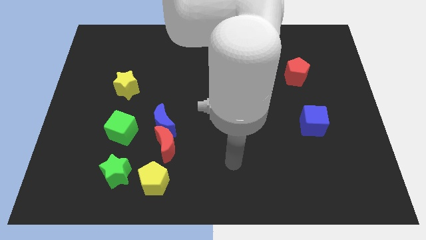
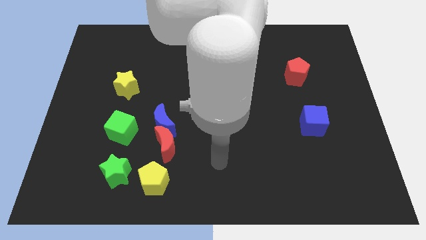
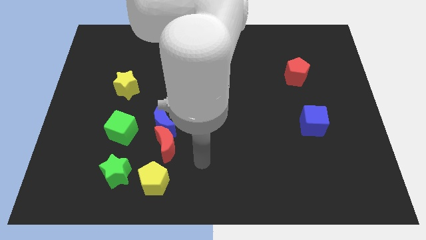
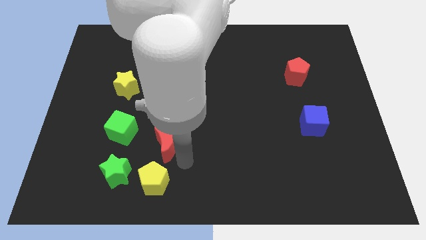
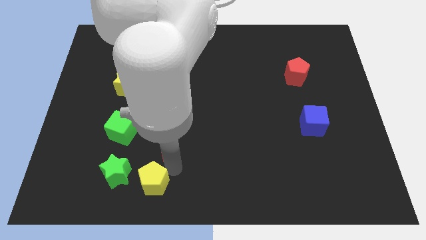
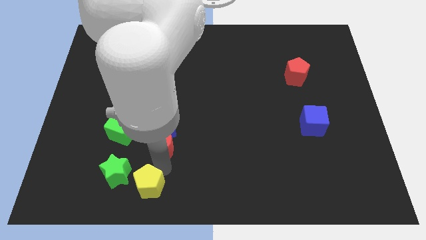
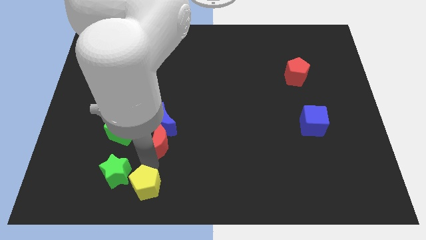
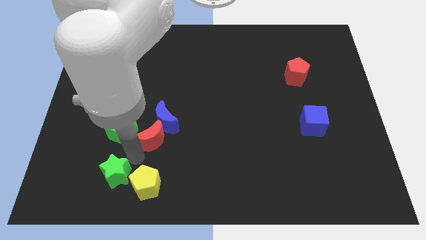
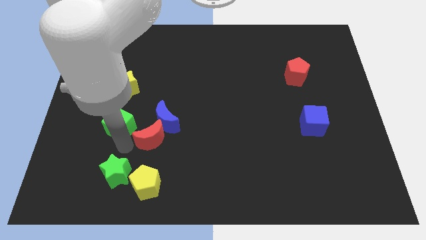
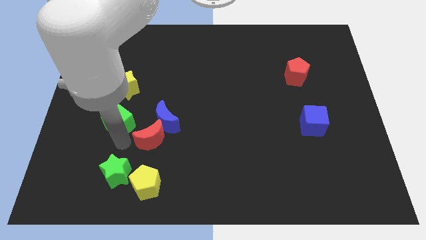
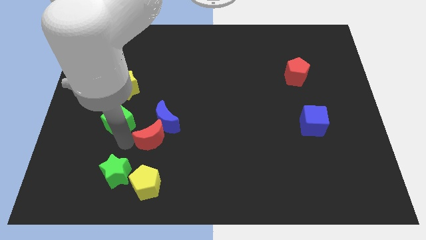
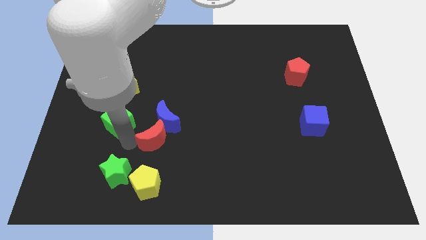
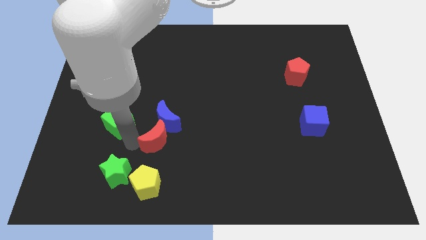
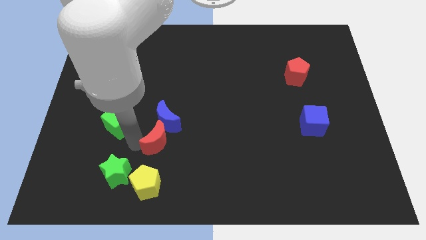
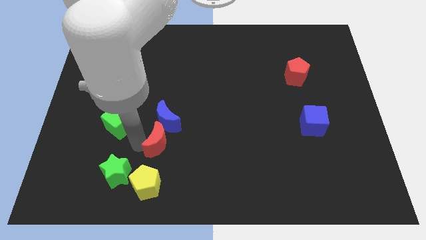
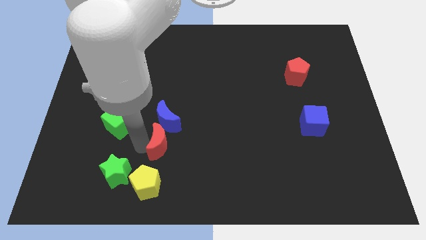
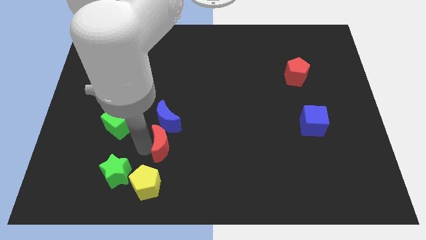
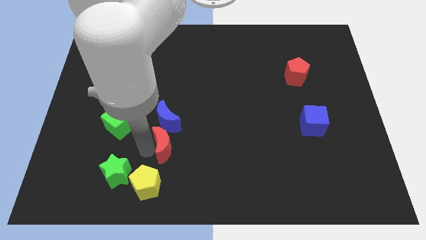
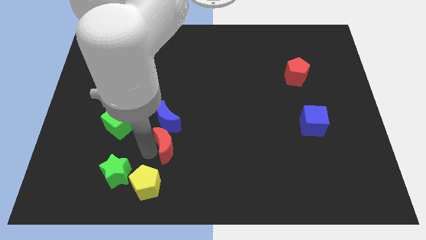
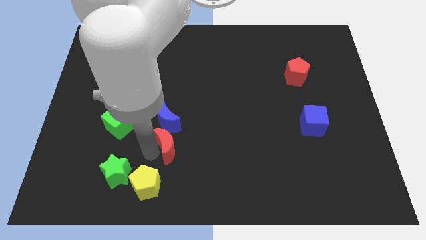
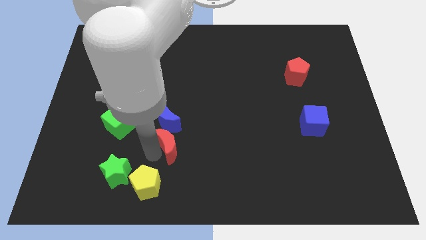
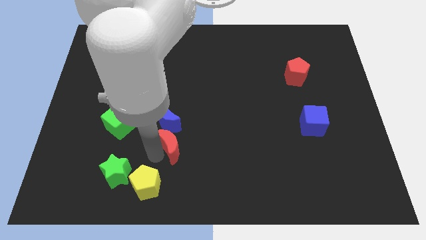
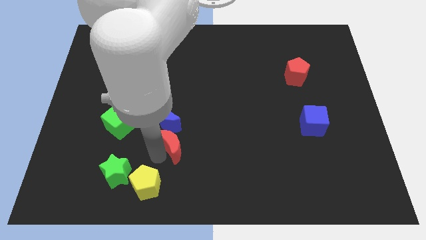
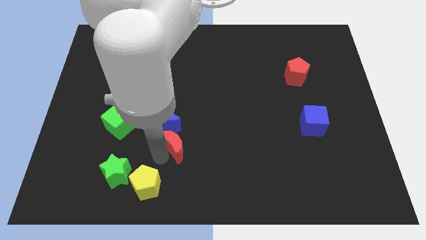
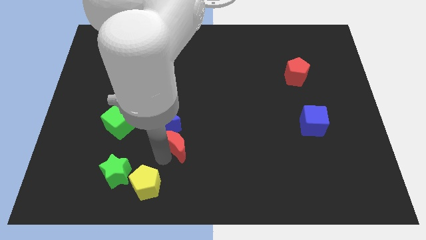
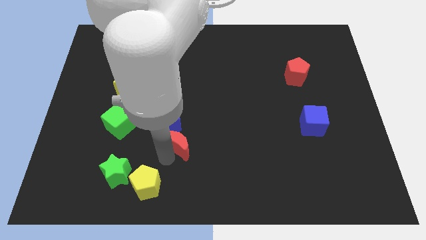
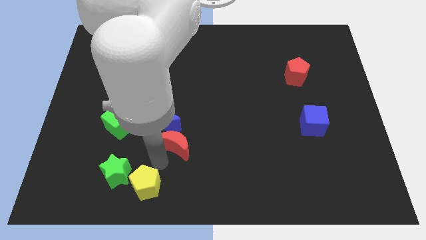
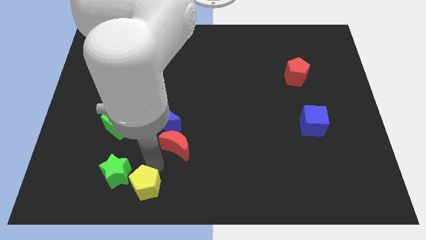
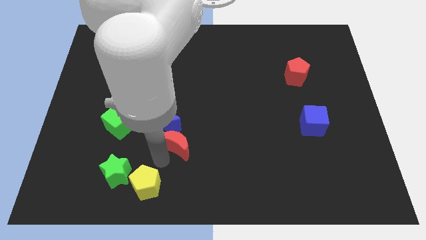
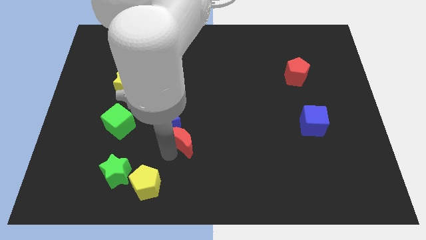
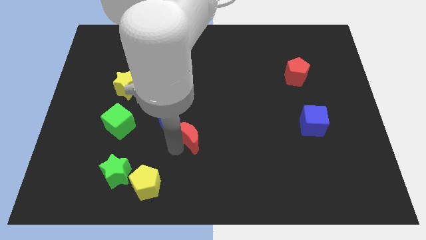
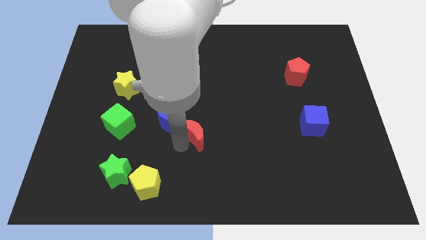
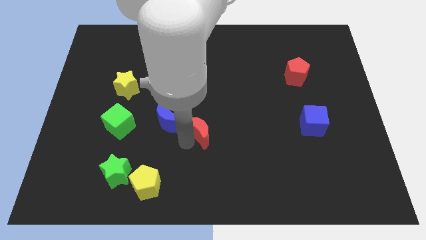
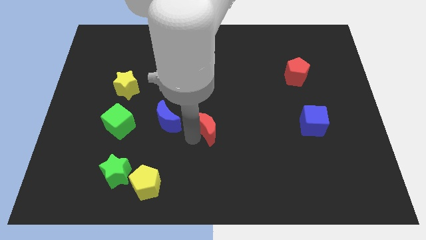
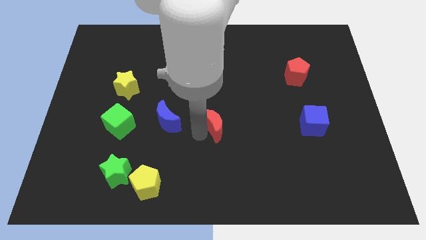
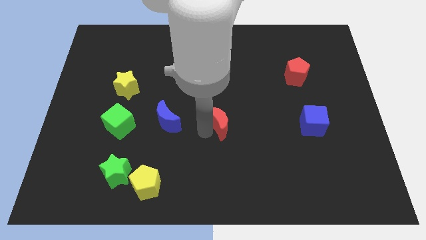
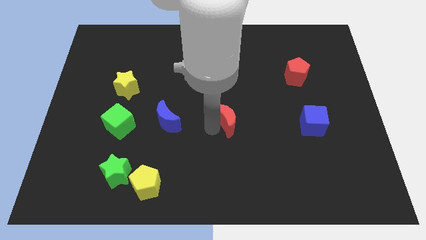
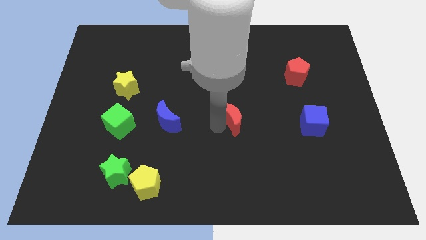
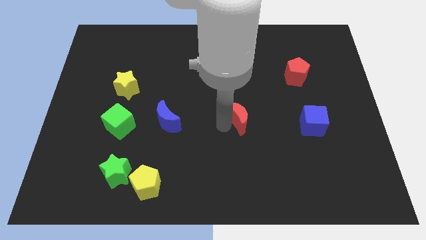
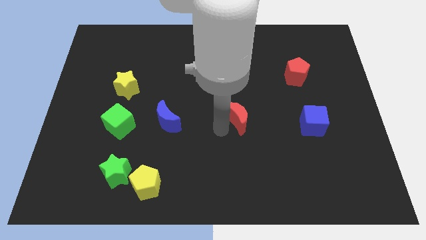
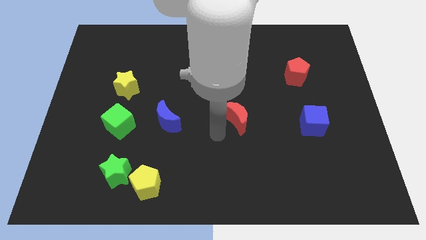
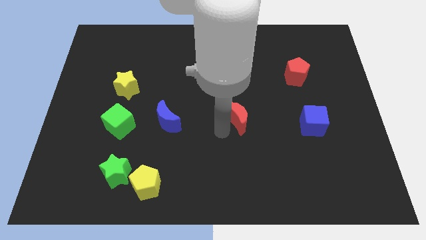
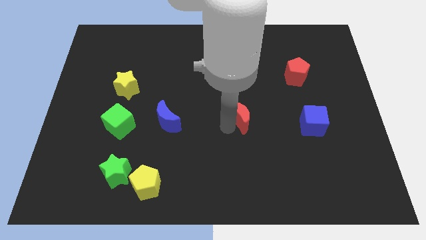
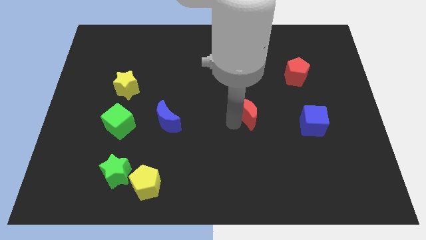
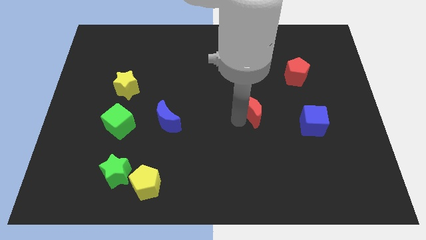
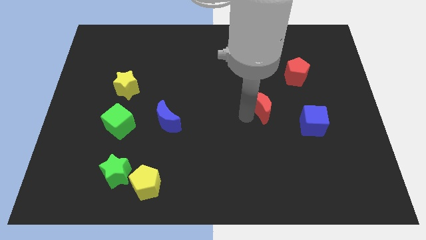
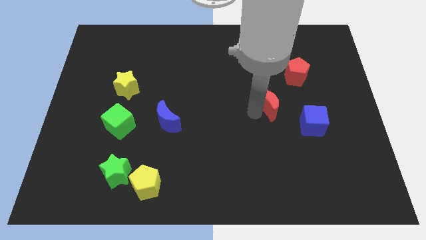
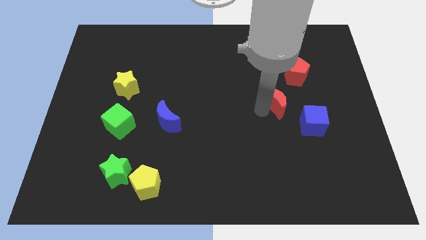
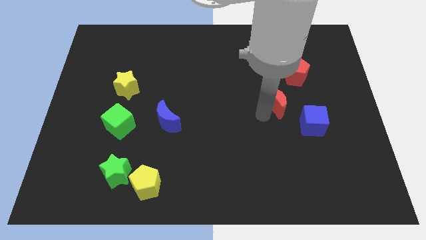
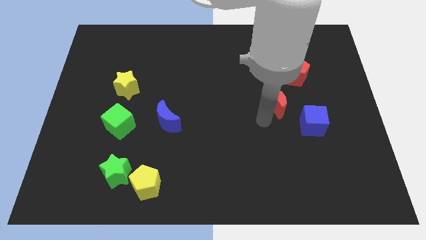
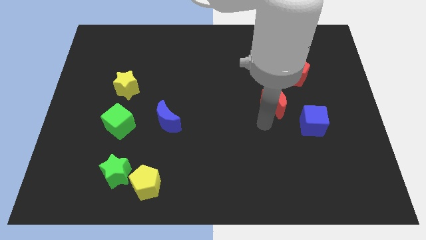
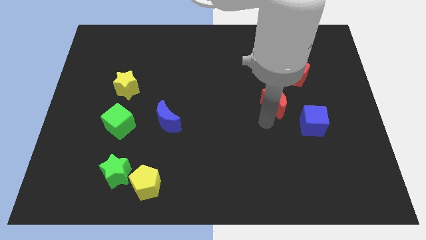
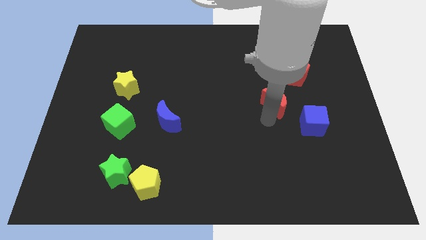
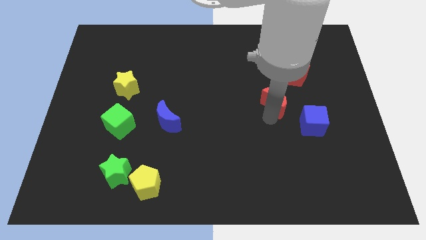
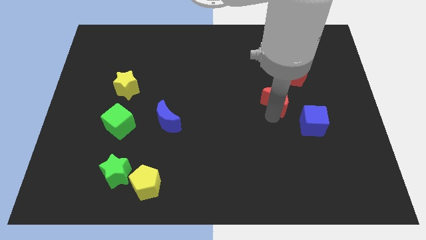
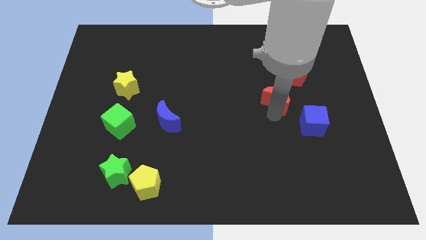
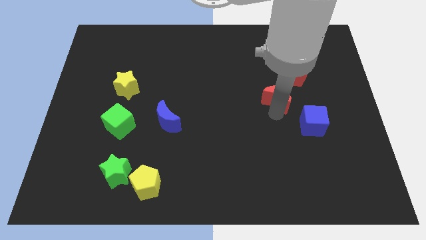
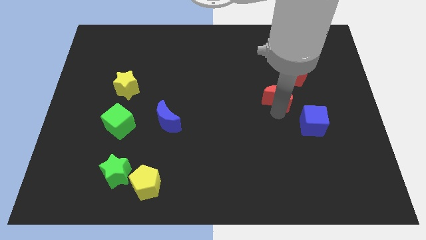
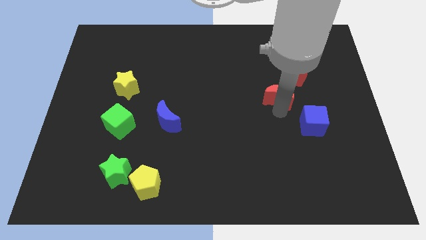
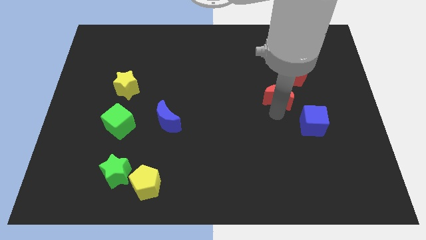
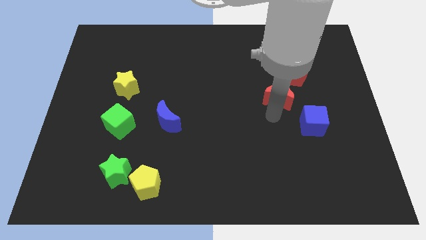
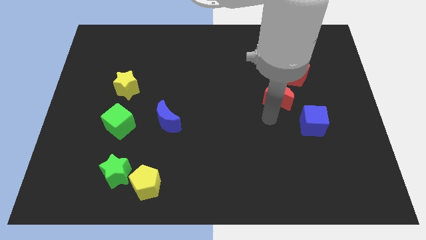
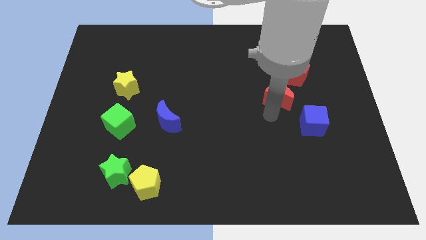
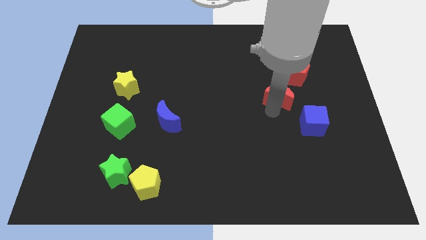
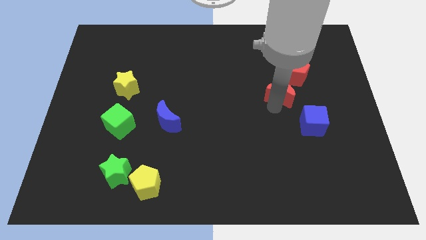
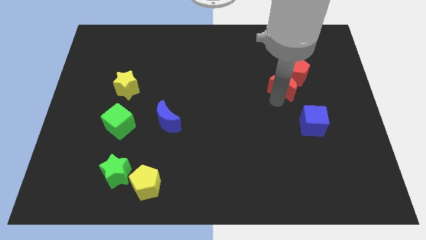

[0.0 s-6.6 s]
push the red moon close to the red pentagon
